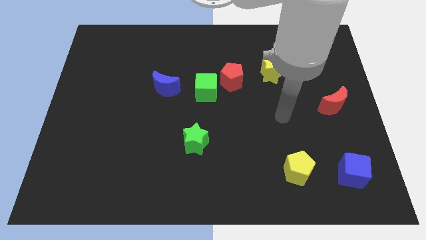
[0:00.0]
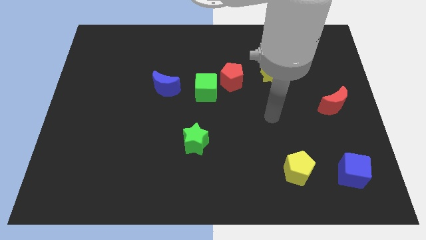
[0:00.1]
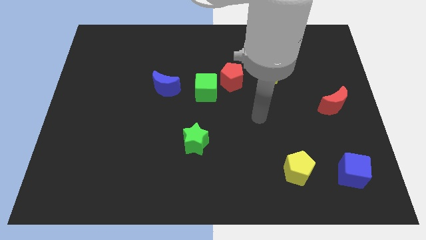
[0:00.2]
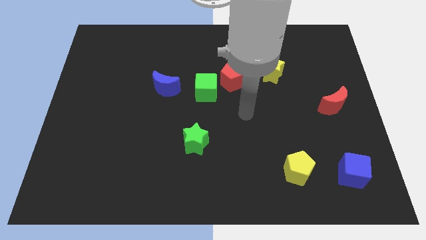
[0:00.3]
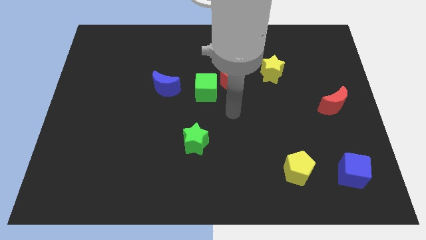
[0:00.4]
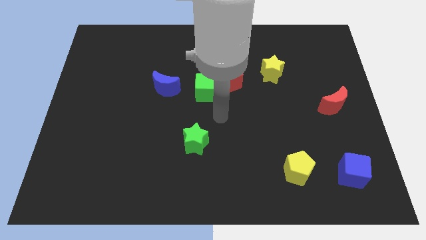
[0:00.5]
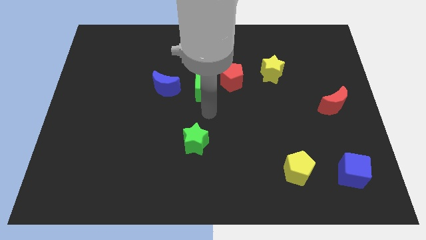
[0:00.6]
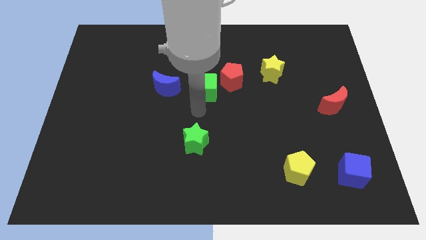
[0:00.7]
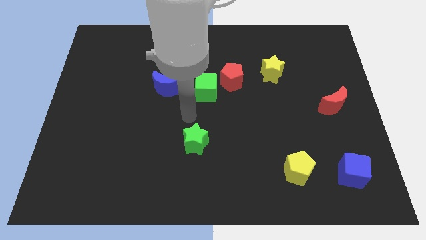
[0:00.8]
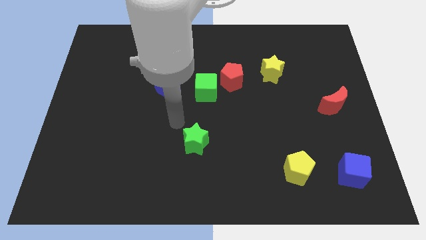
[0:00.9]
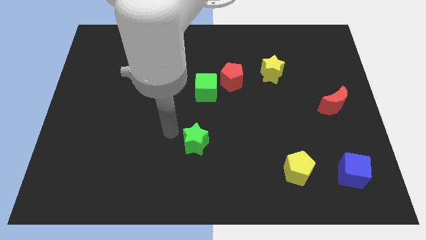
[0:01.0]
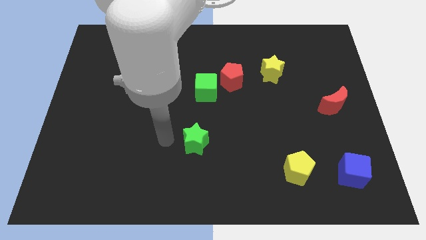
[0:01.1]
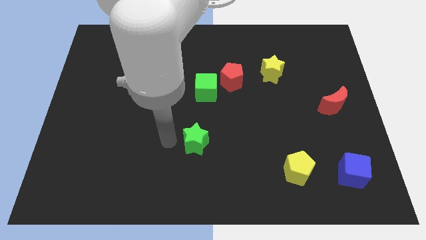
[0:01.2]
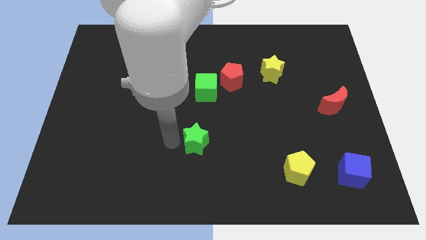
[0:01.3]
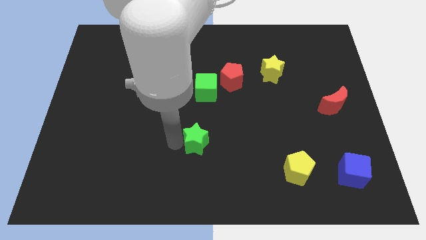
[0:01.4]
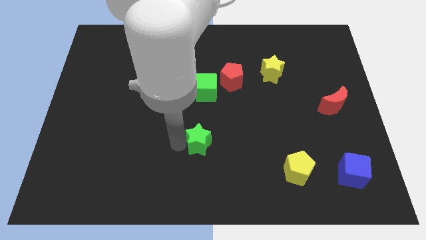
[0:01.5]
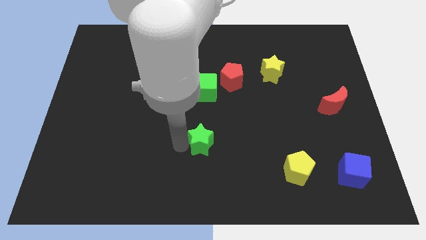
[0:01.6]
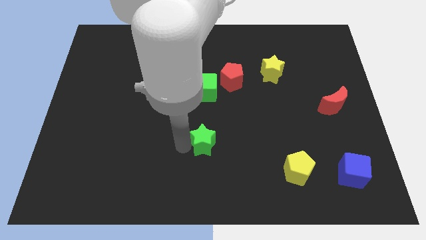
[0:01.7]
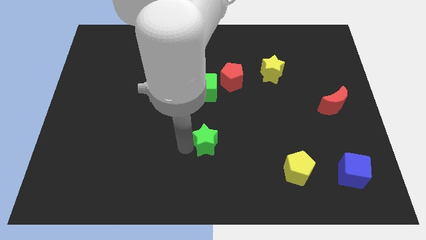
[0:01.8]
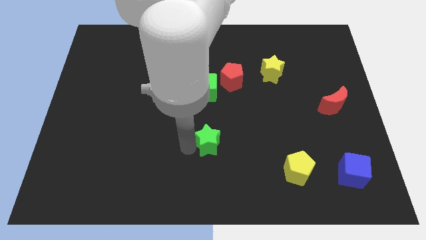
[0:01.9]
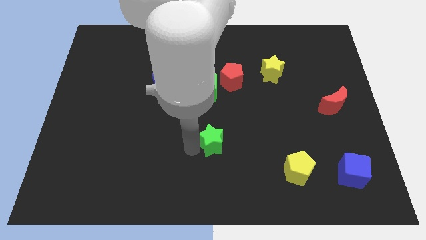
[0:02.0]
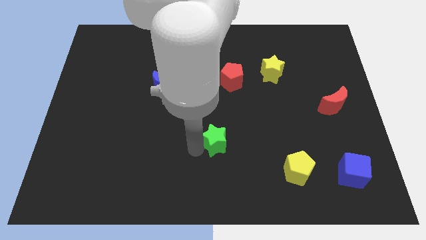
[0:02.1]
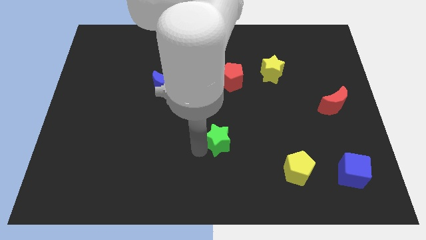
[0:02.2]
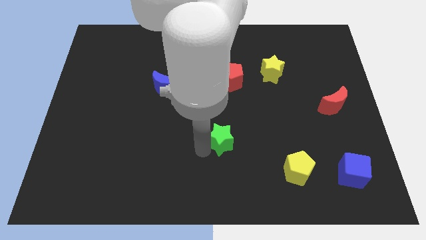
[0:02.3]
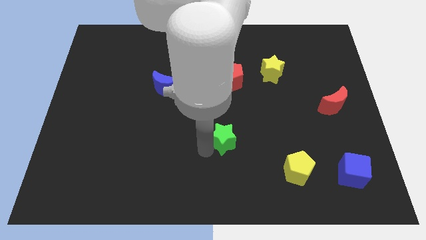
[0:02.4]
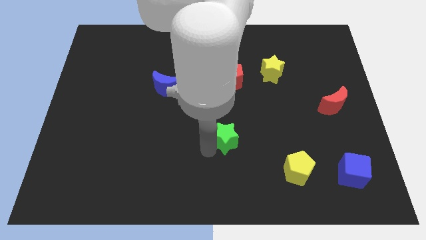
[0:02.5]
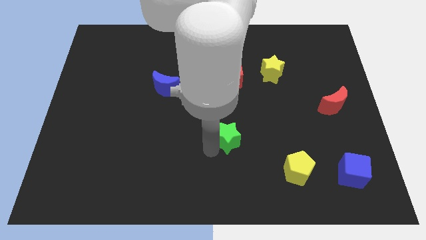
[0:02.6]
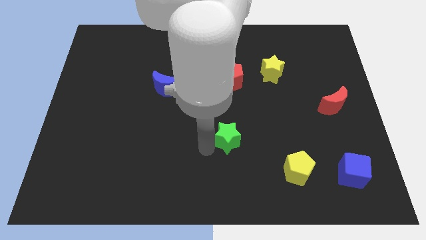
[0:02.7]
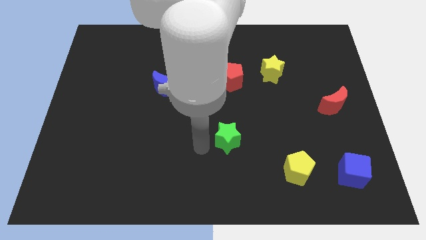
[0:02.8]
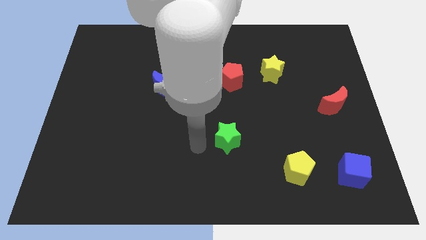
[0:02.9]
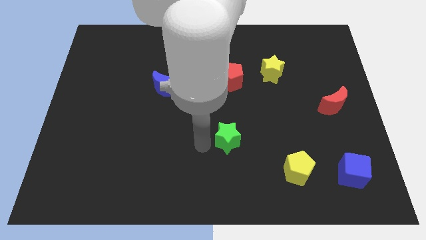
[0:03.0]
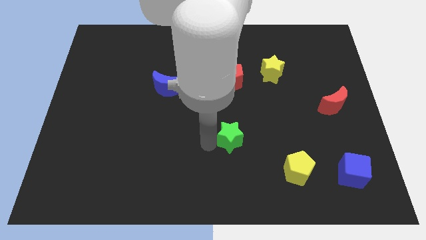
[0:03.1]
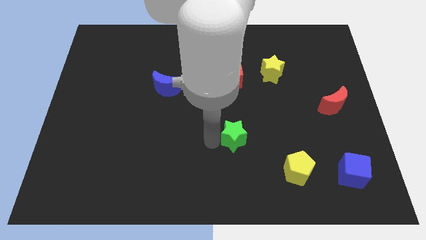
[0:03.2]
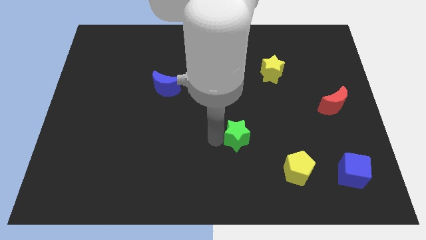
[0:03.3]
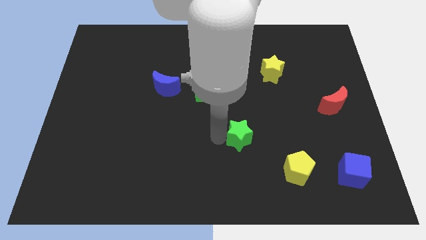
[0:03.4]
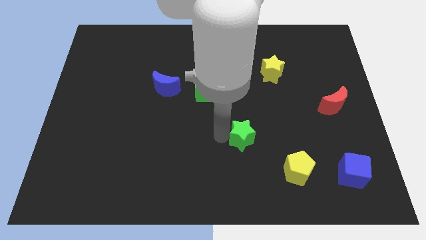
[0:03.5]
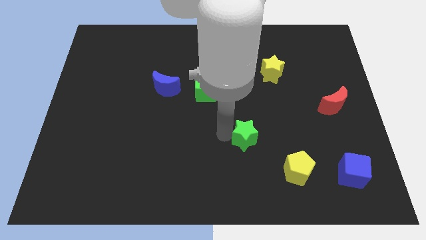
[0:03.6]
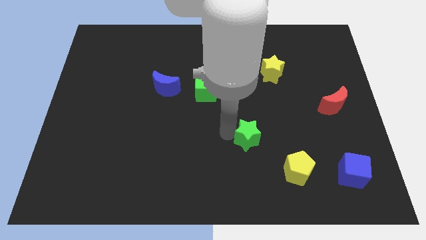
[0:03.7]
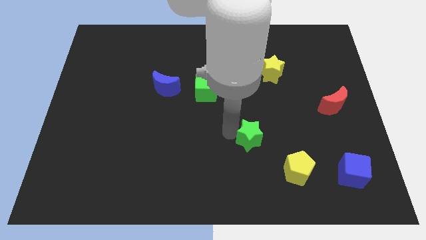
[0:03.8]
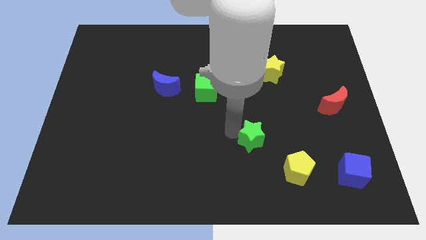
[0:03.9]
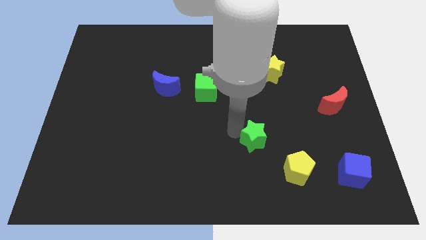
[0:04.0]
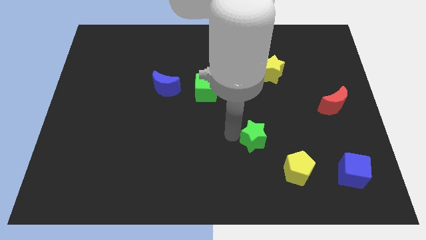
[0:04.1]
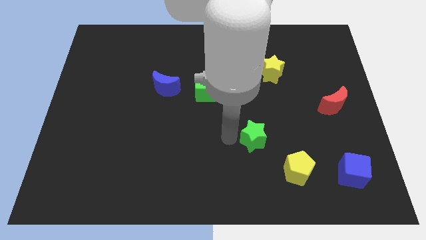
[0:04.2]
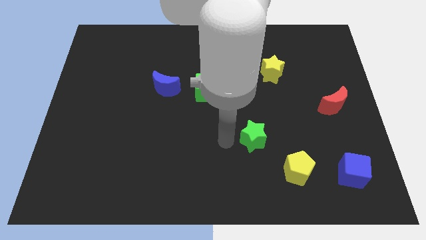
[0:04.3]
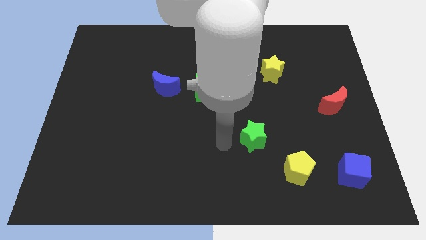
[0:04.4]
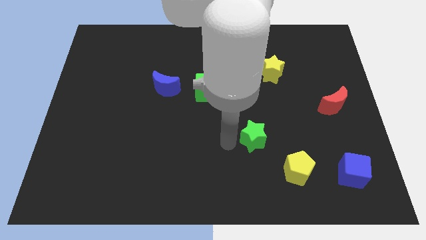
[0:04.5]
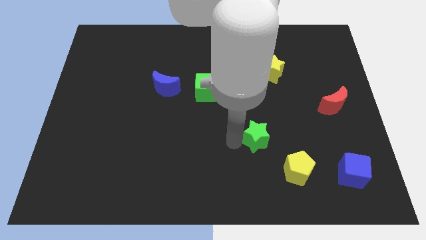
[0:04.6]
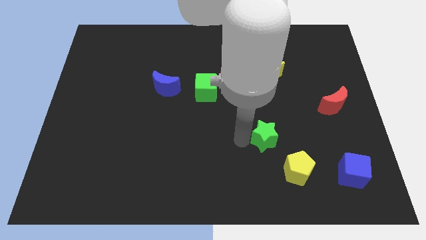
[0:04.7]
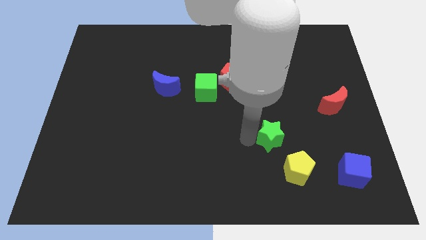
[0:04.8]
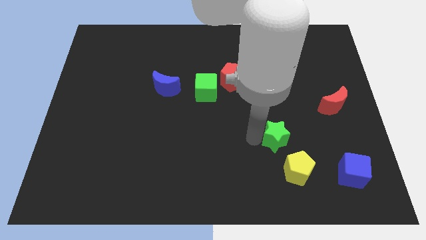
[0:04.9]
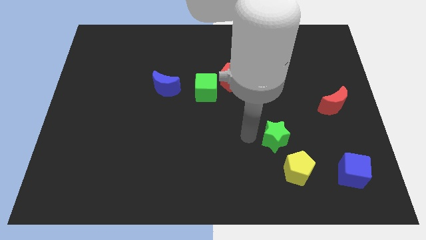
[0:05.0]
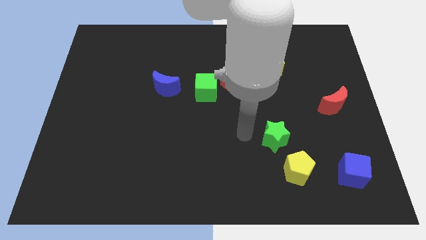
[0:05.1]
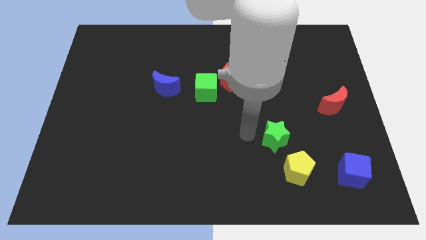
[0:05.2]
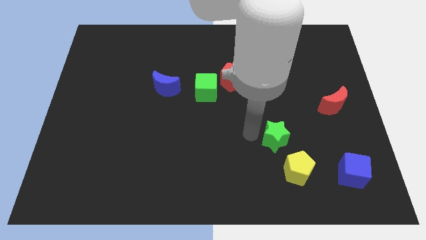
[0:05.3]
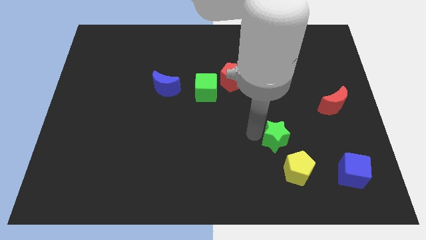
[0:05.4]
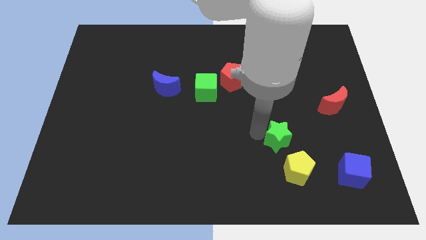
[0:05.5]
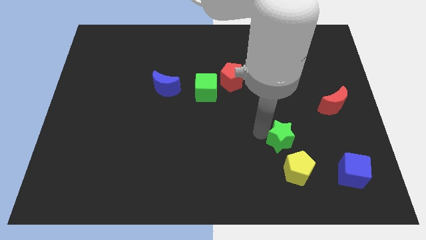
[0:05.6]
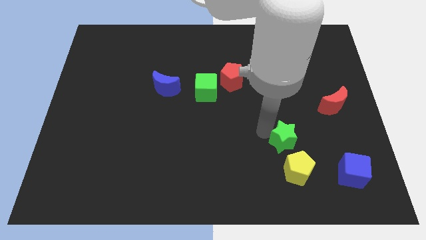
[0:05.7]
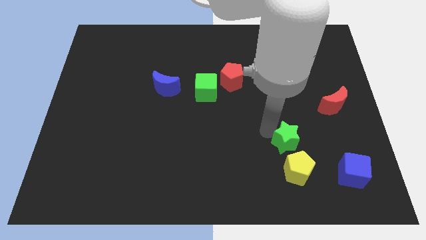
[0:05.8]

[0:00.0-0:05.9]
move the green star right

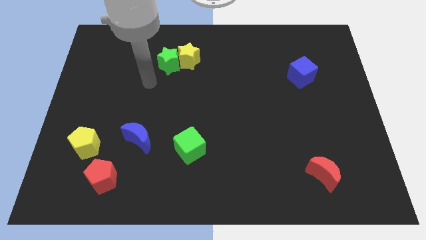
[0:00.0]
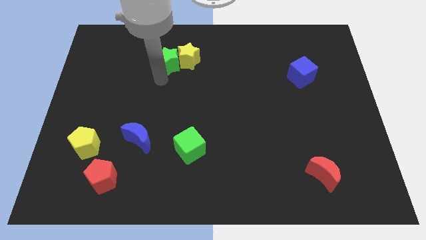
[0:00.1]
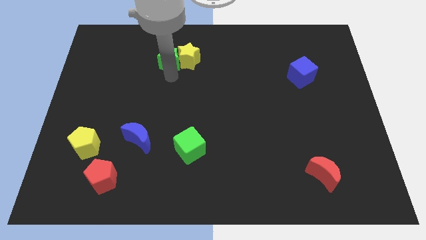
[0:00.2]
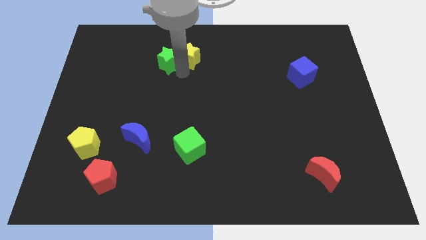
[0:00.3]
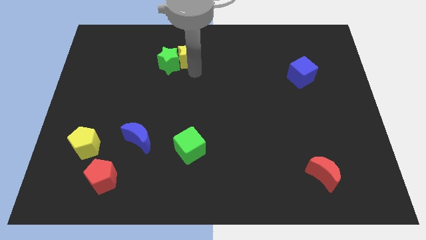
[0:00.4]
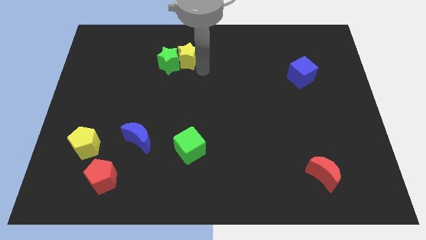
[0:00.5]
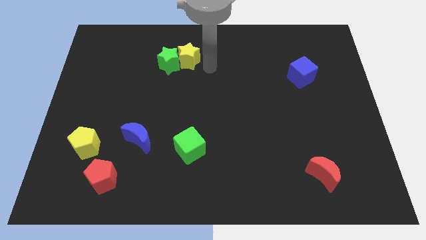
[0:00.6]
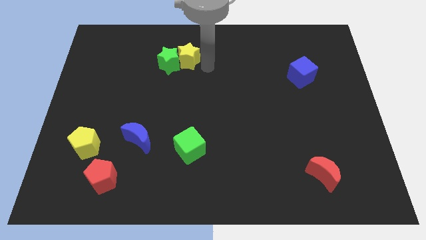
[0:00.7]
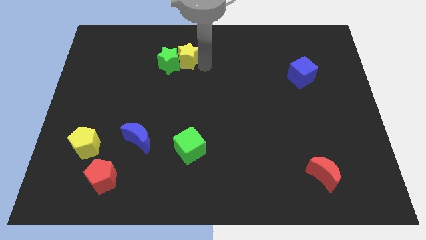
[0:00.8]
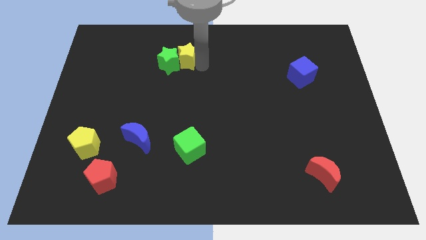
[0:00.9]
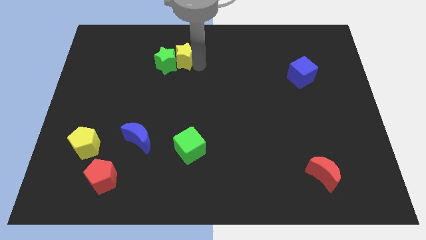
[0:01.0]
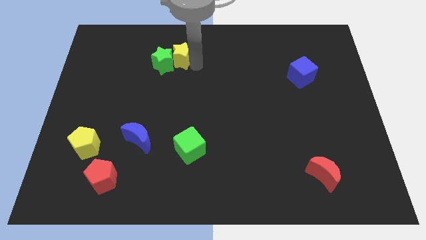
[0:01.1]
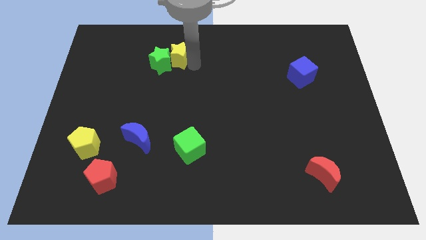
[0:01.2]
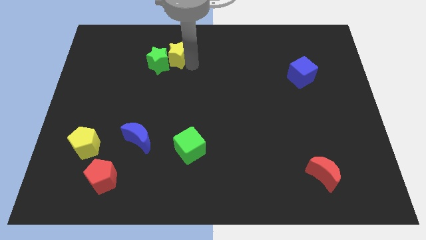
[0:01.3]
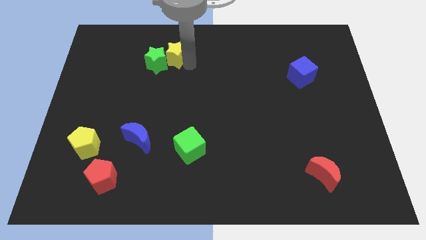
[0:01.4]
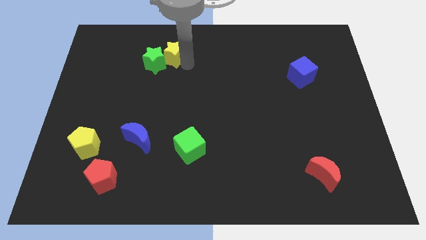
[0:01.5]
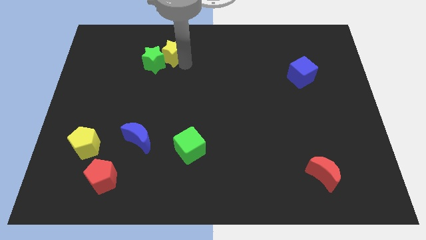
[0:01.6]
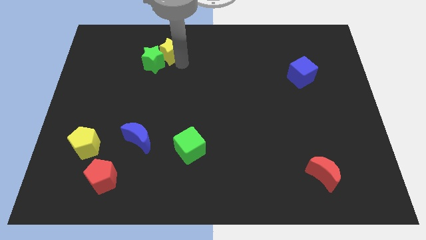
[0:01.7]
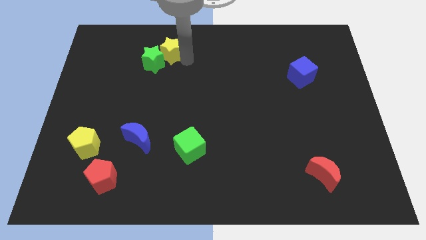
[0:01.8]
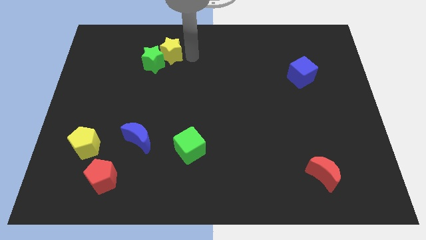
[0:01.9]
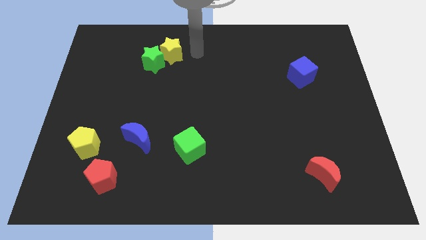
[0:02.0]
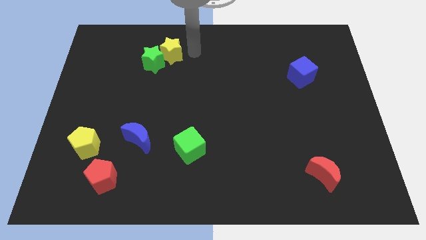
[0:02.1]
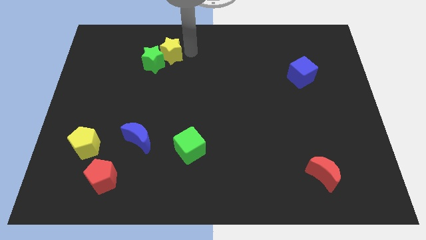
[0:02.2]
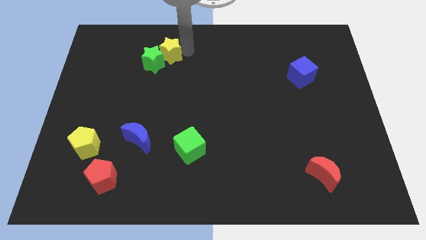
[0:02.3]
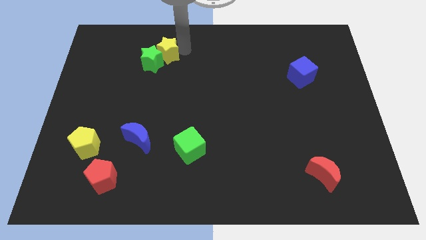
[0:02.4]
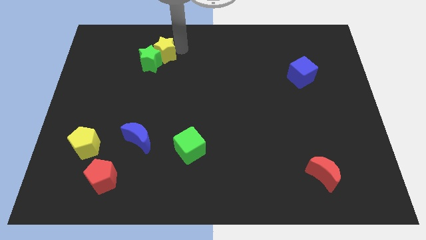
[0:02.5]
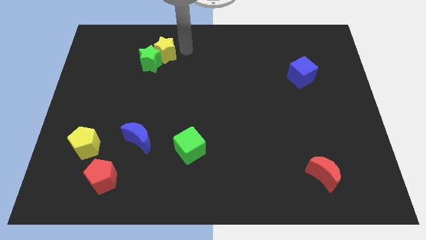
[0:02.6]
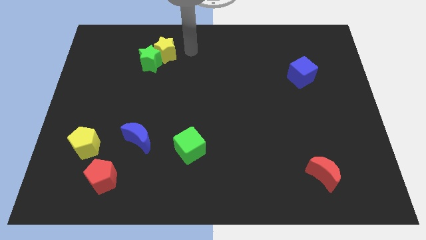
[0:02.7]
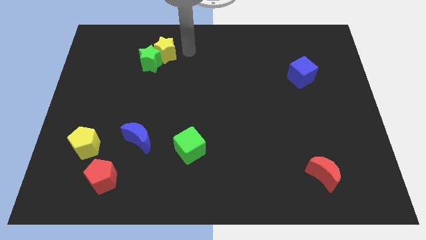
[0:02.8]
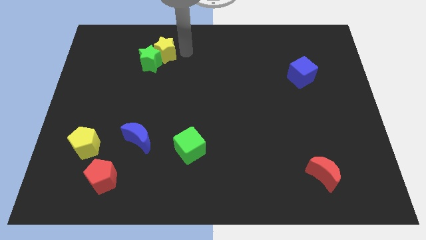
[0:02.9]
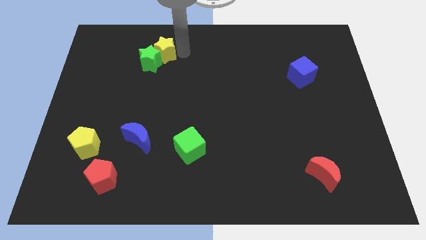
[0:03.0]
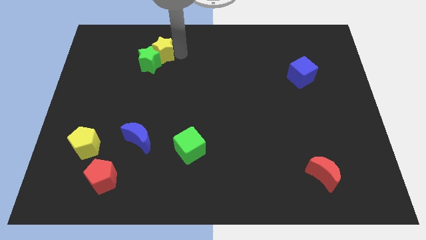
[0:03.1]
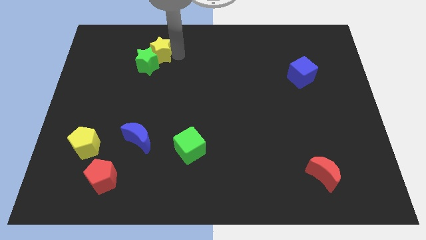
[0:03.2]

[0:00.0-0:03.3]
move the yellow star a little to the left
